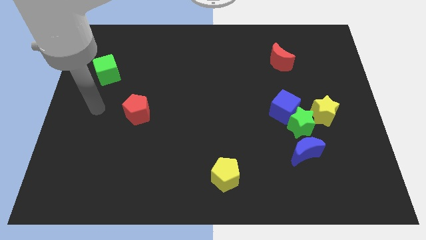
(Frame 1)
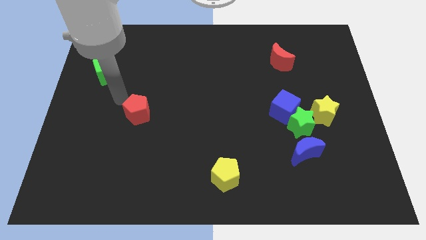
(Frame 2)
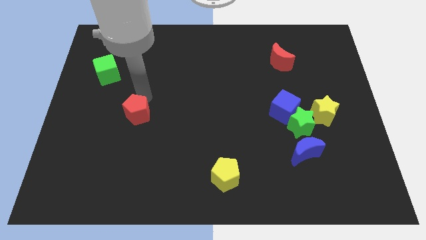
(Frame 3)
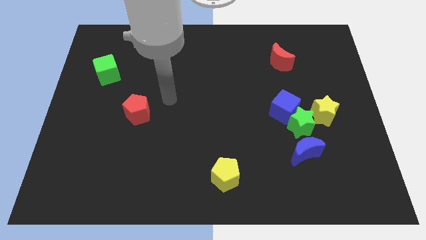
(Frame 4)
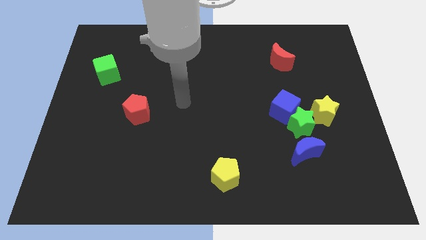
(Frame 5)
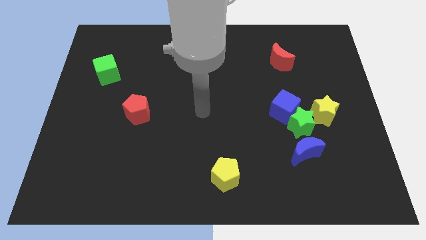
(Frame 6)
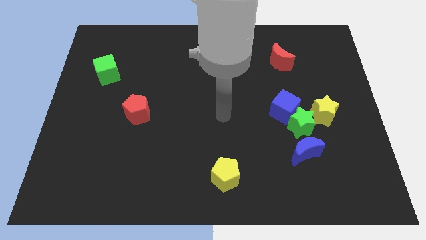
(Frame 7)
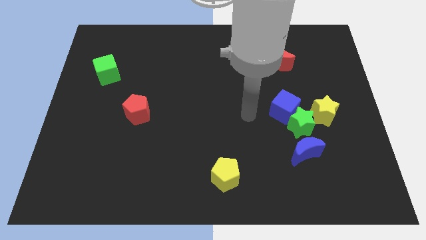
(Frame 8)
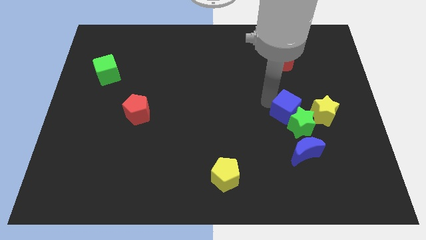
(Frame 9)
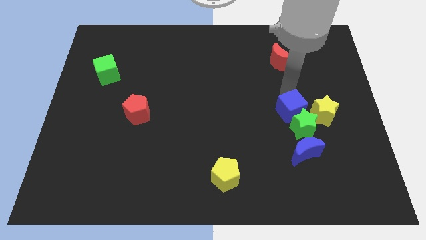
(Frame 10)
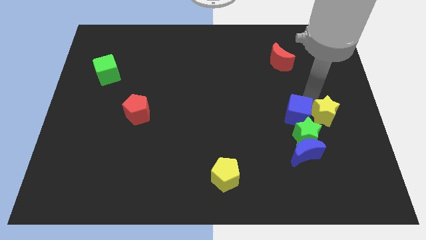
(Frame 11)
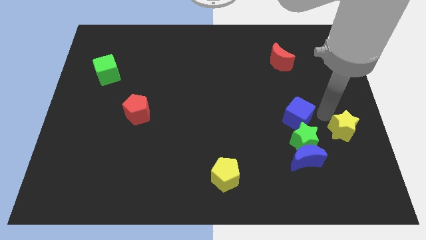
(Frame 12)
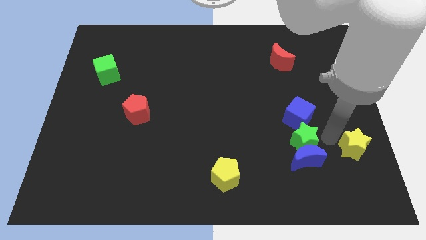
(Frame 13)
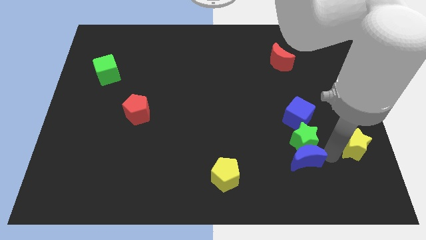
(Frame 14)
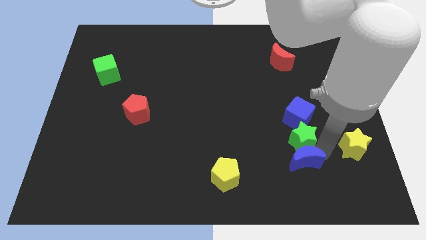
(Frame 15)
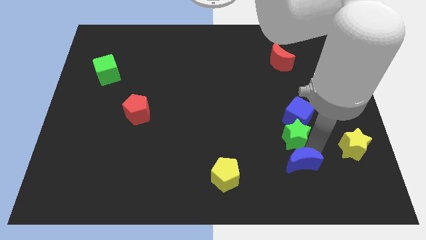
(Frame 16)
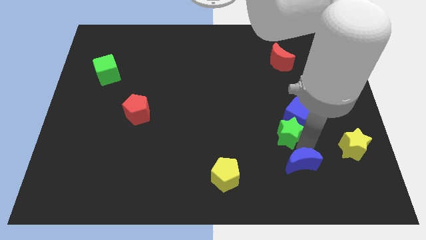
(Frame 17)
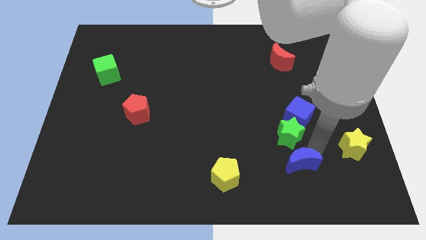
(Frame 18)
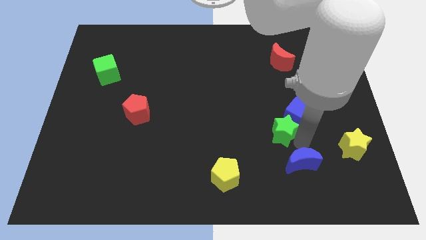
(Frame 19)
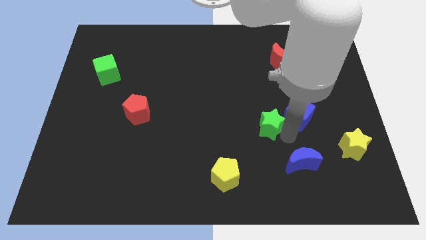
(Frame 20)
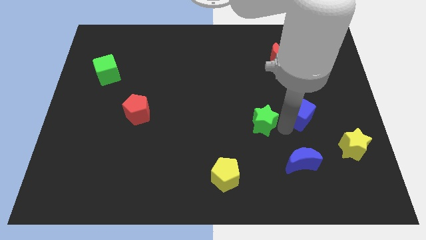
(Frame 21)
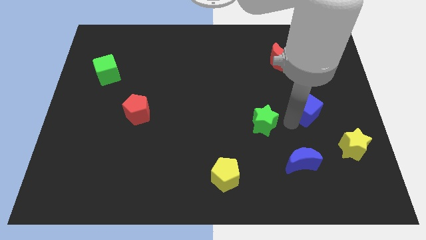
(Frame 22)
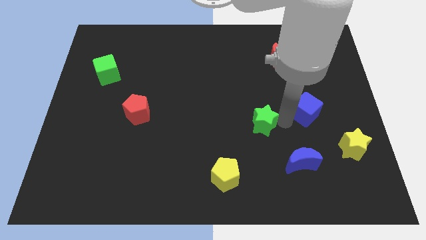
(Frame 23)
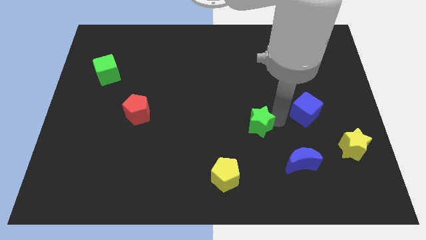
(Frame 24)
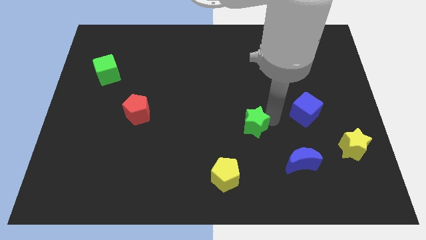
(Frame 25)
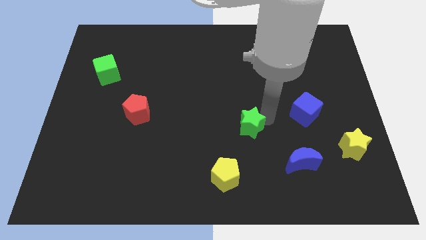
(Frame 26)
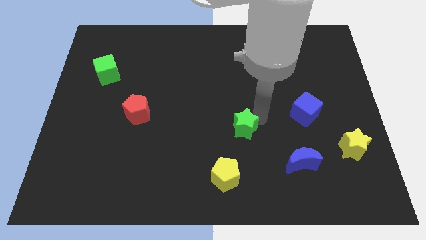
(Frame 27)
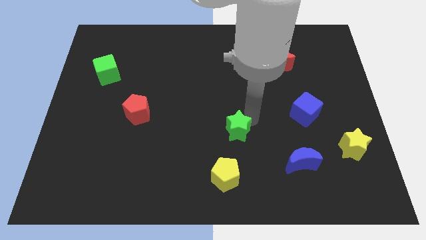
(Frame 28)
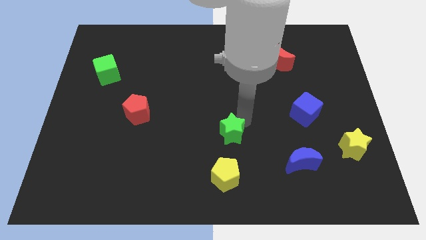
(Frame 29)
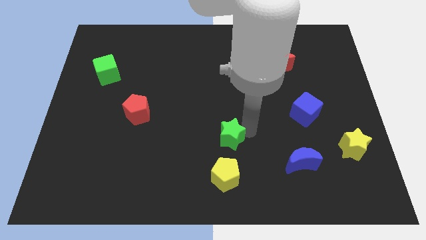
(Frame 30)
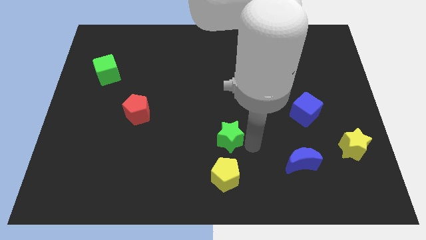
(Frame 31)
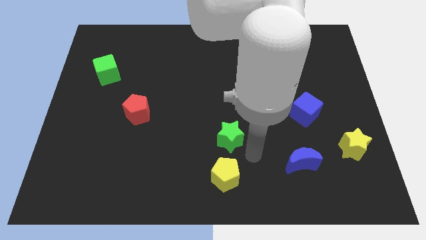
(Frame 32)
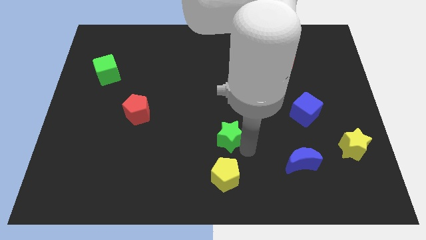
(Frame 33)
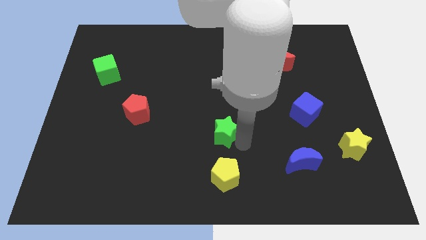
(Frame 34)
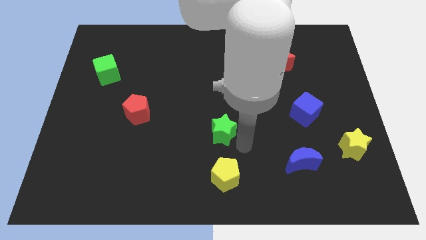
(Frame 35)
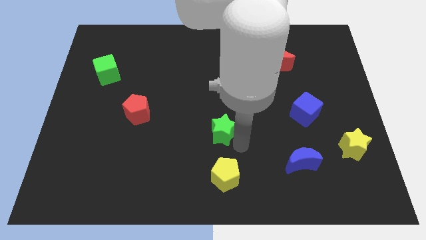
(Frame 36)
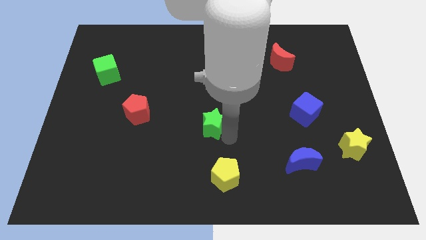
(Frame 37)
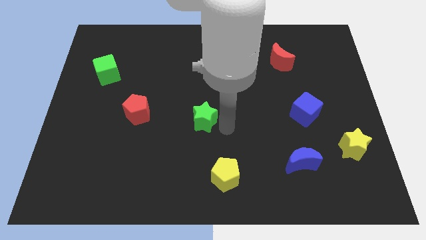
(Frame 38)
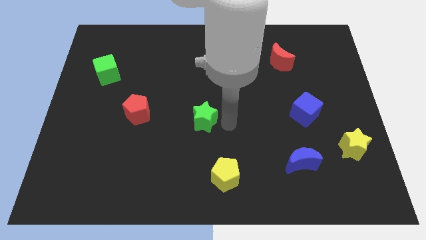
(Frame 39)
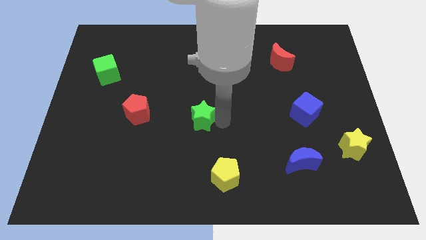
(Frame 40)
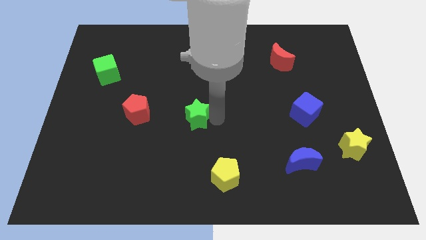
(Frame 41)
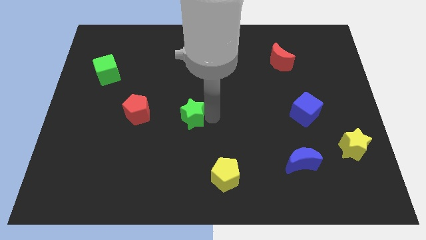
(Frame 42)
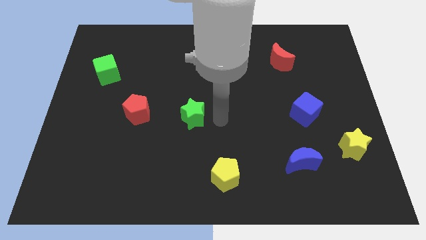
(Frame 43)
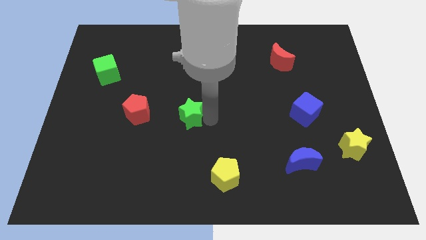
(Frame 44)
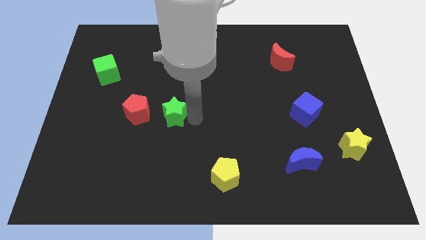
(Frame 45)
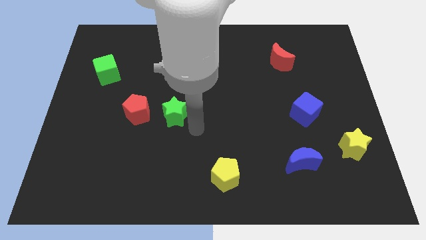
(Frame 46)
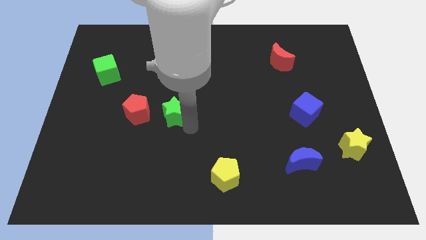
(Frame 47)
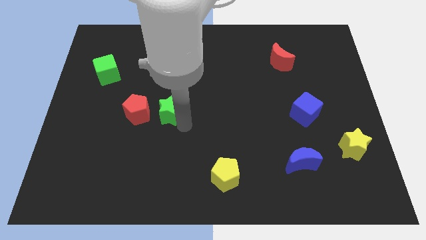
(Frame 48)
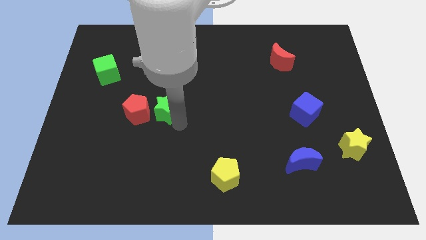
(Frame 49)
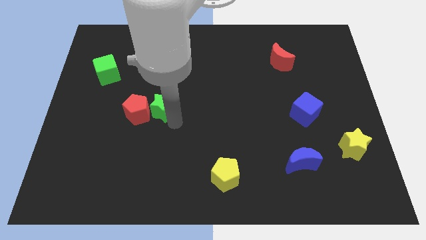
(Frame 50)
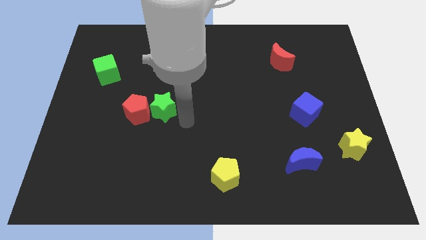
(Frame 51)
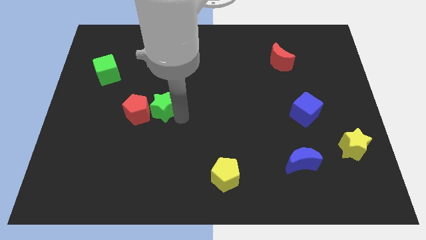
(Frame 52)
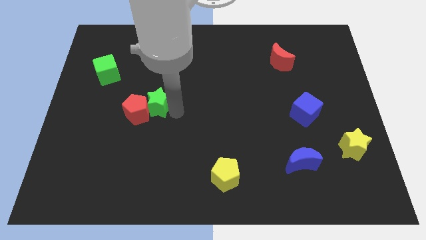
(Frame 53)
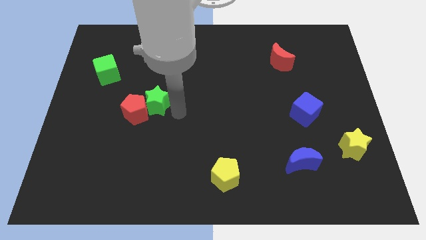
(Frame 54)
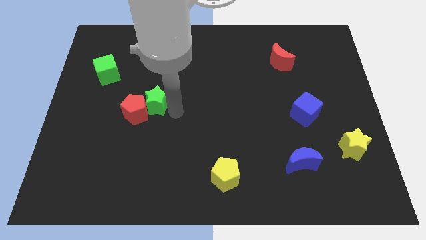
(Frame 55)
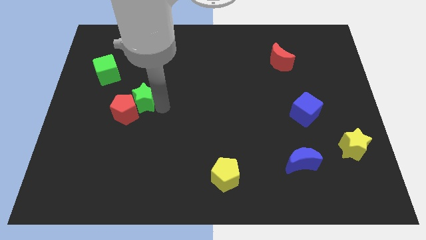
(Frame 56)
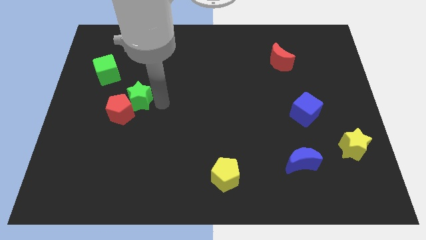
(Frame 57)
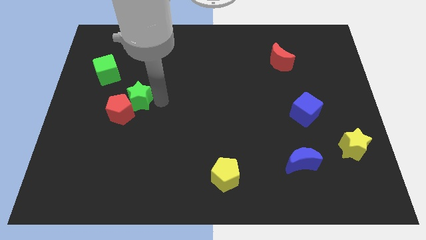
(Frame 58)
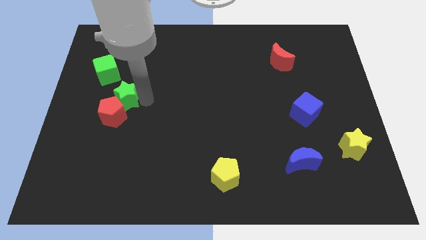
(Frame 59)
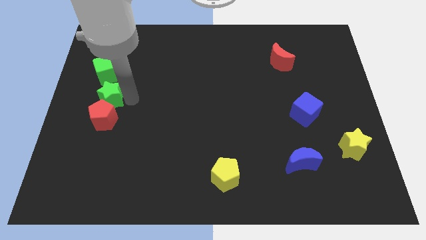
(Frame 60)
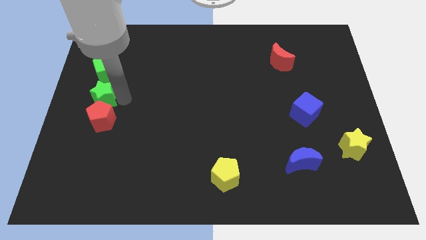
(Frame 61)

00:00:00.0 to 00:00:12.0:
move the green star to the left side

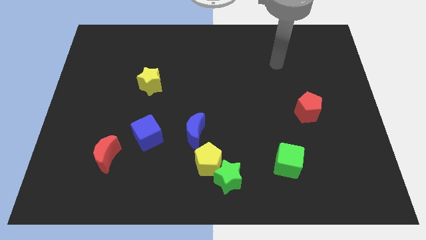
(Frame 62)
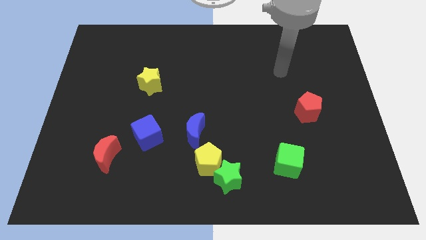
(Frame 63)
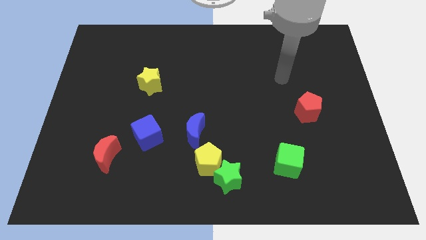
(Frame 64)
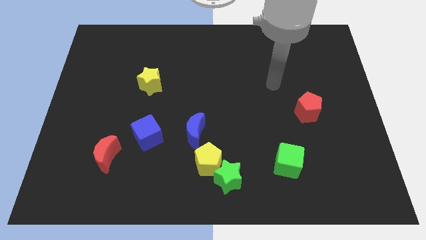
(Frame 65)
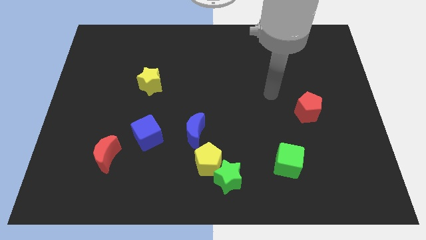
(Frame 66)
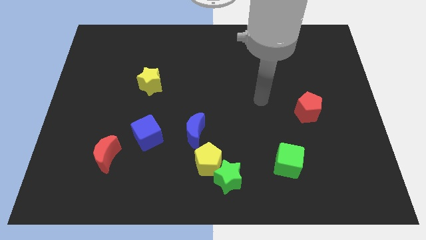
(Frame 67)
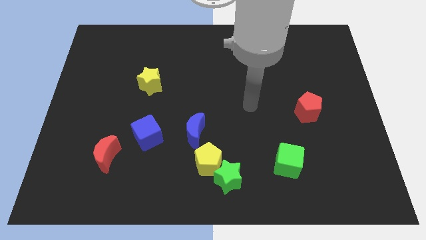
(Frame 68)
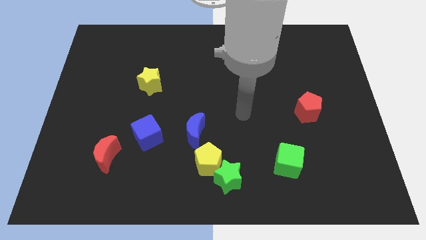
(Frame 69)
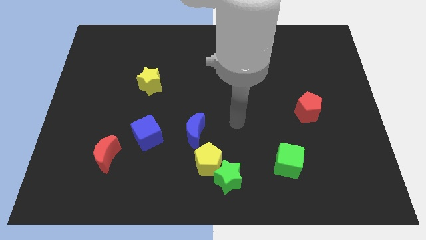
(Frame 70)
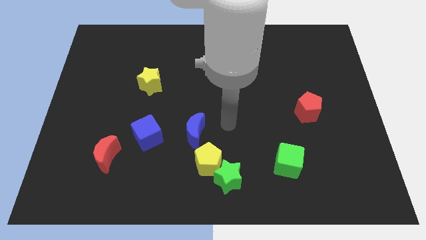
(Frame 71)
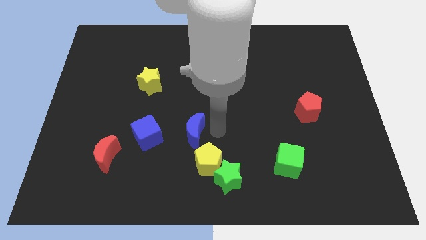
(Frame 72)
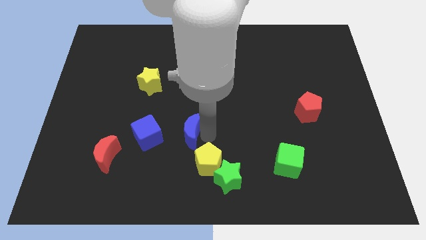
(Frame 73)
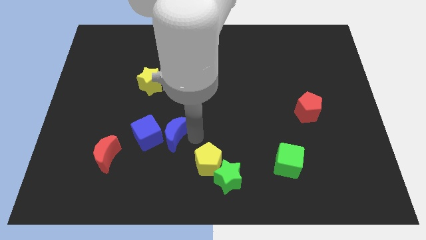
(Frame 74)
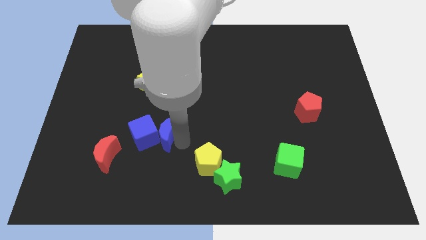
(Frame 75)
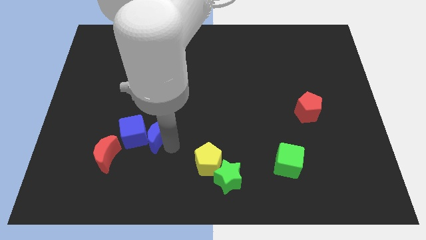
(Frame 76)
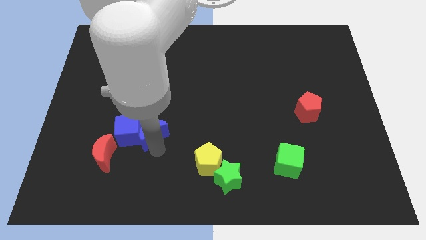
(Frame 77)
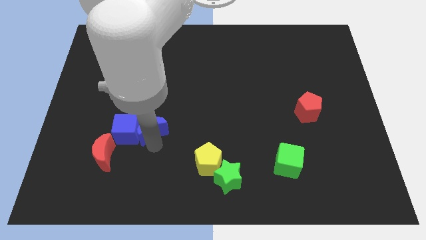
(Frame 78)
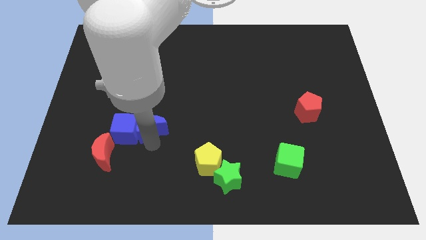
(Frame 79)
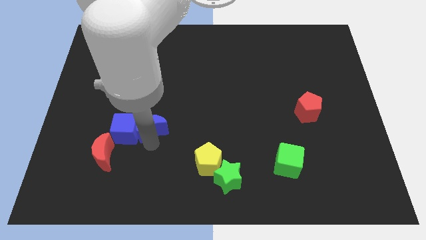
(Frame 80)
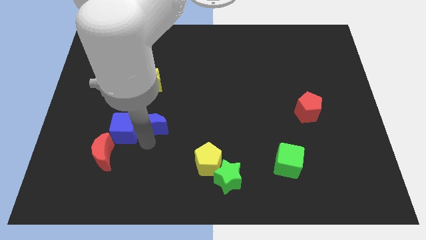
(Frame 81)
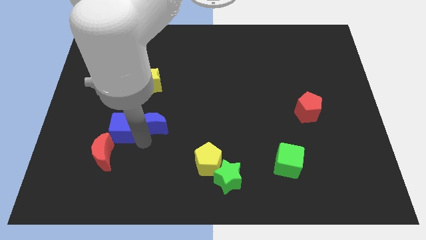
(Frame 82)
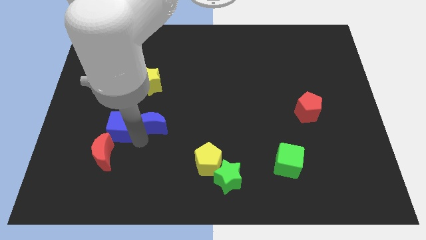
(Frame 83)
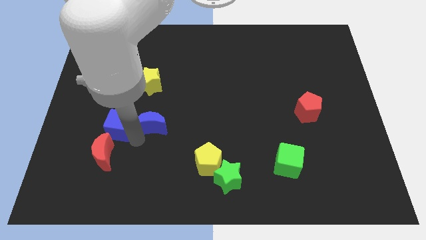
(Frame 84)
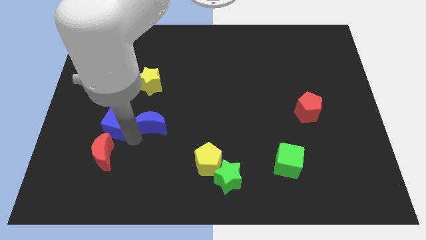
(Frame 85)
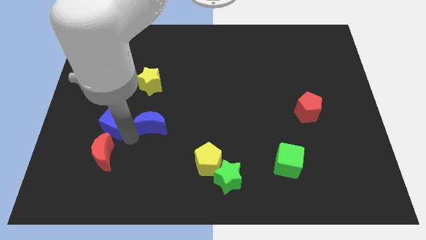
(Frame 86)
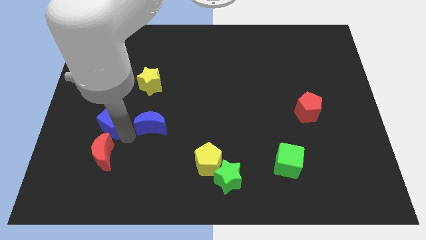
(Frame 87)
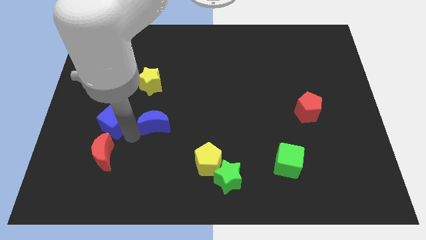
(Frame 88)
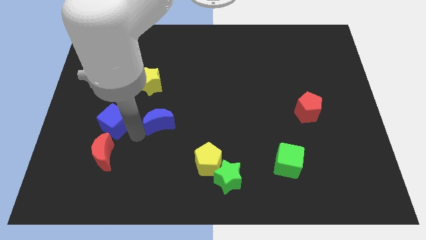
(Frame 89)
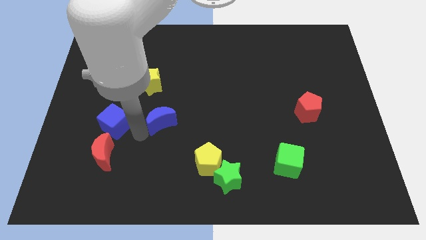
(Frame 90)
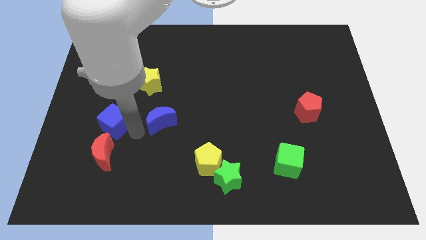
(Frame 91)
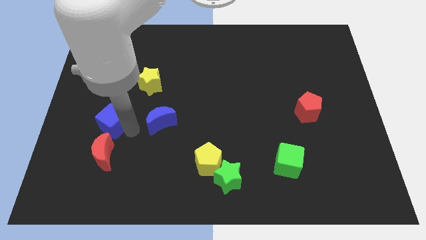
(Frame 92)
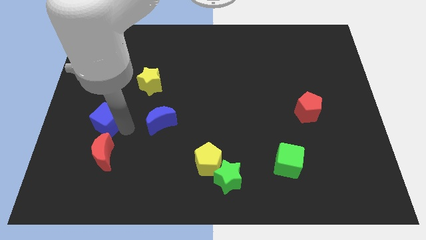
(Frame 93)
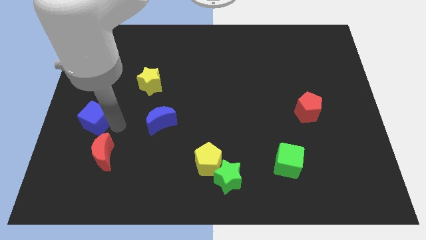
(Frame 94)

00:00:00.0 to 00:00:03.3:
slide the blue cube to the left side
